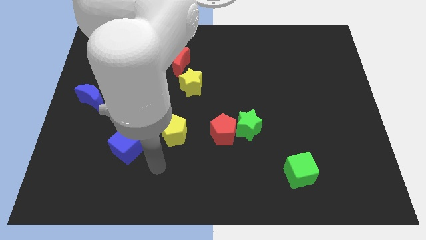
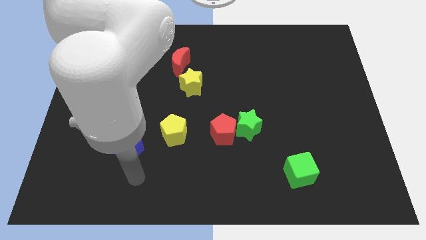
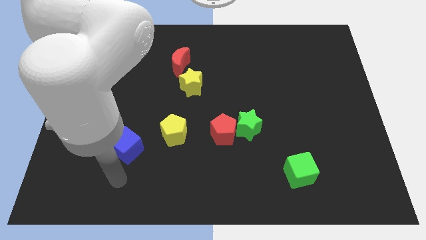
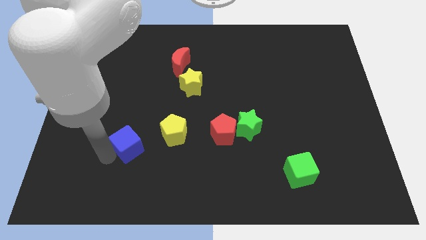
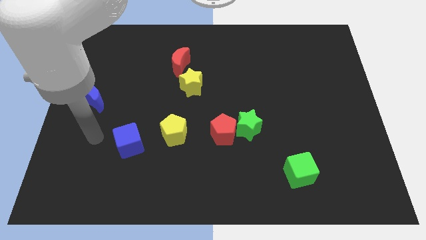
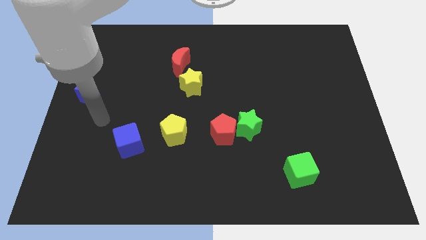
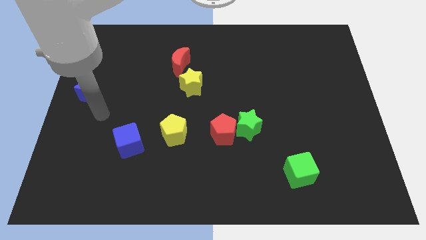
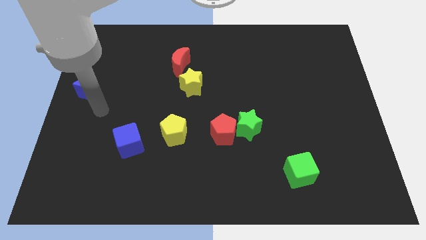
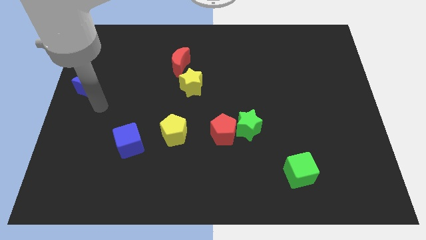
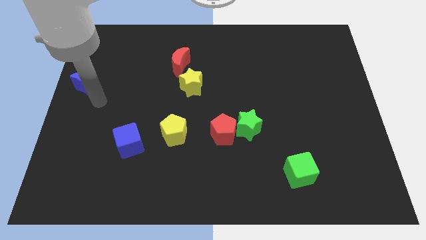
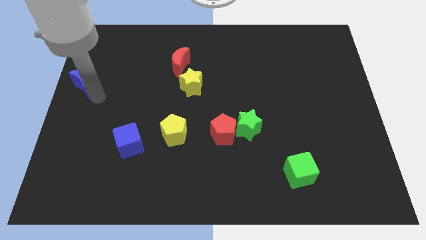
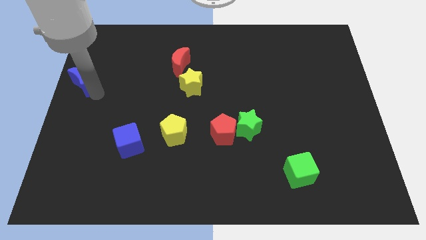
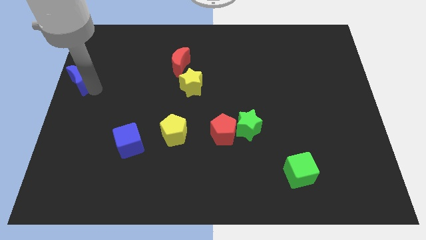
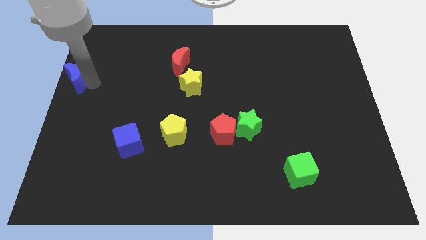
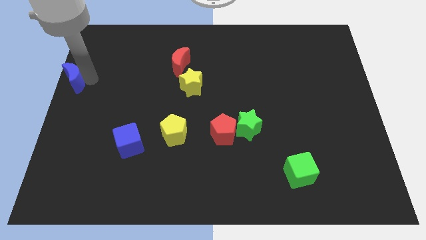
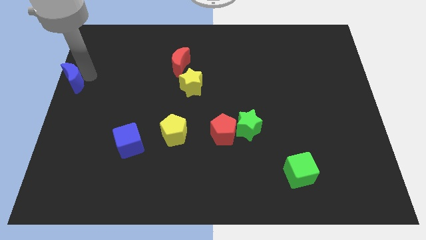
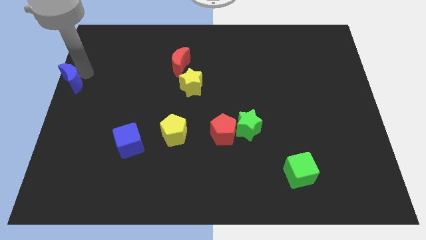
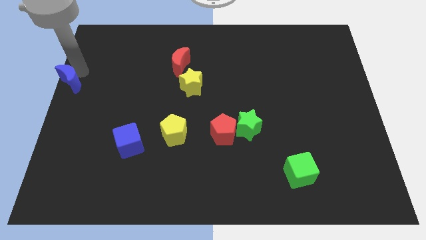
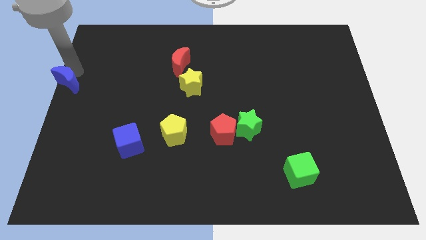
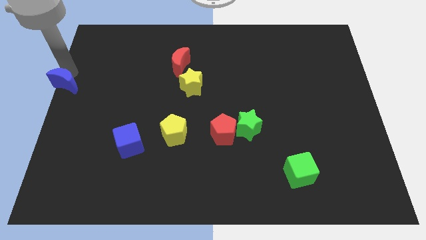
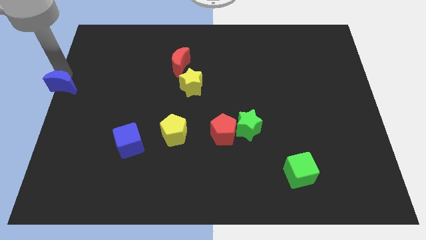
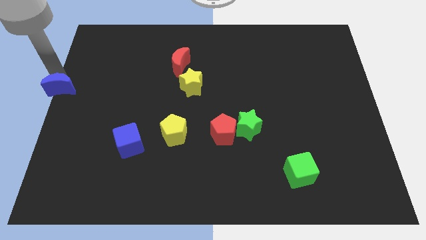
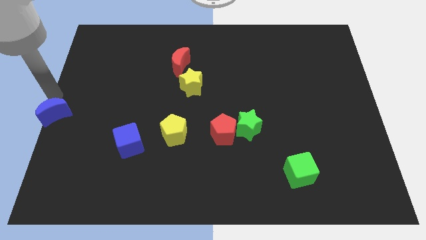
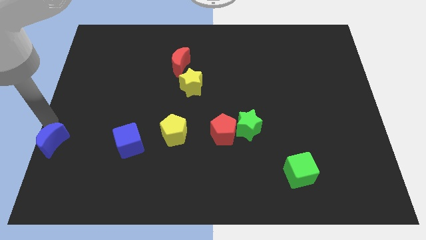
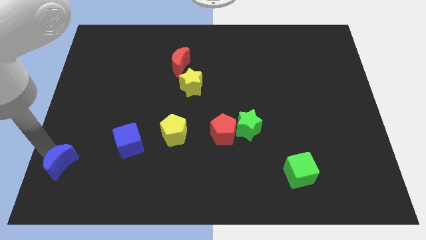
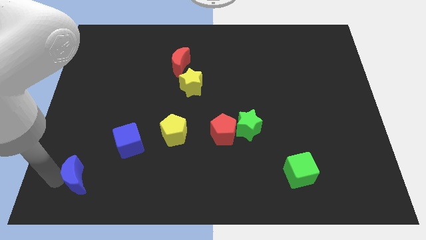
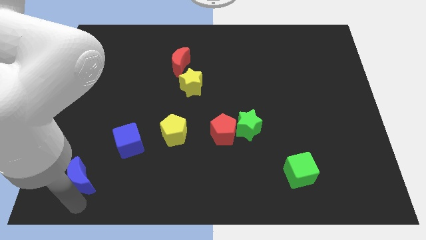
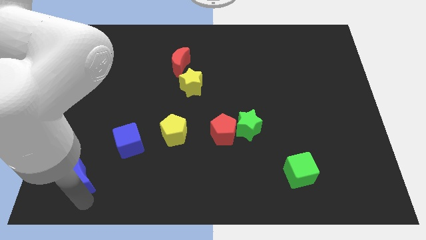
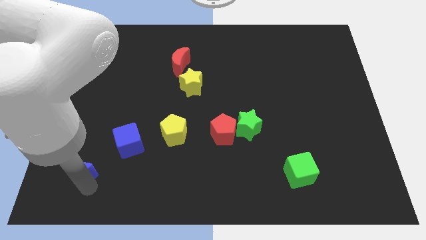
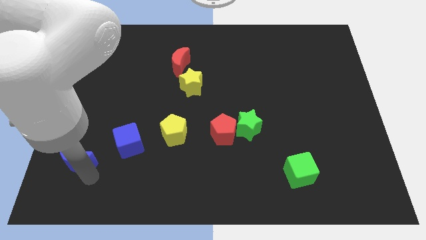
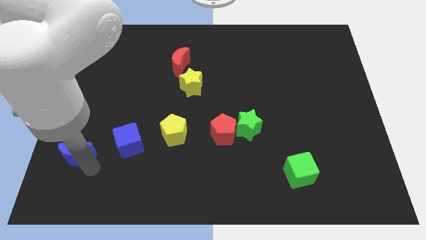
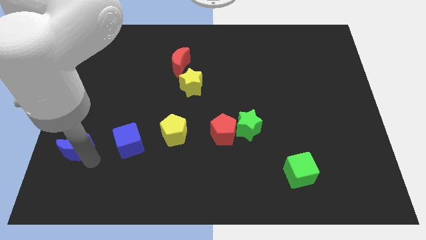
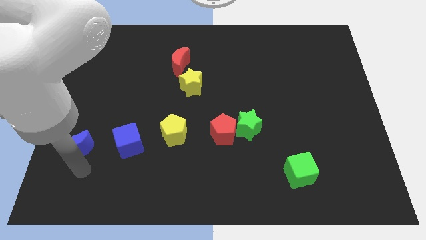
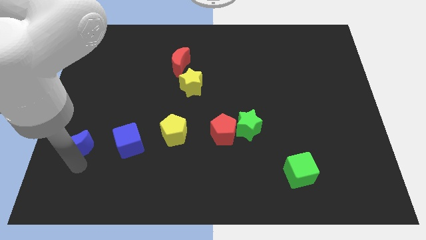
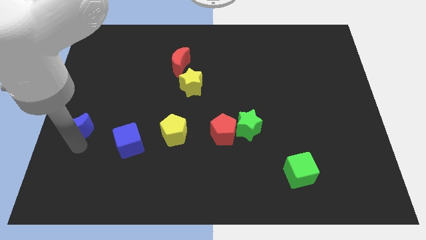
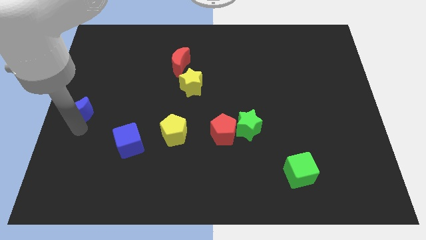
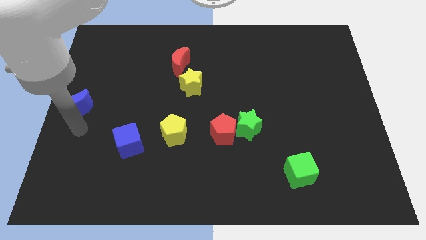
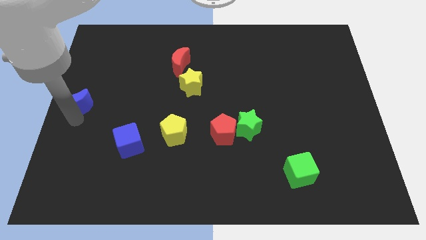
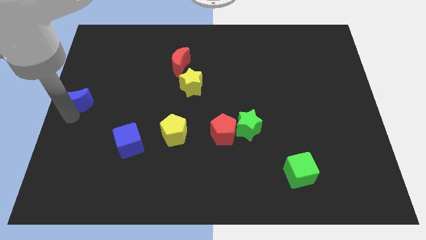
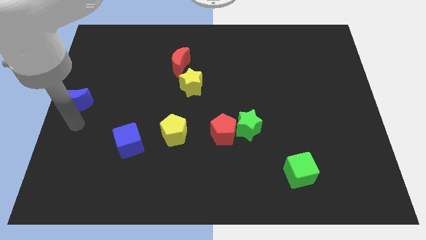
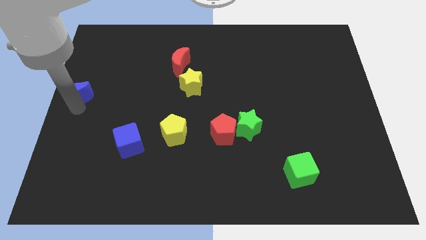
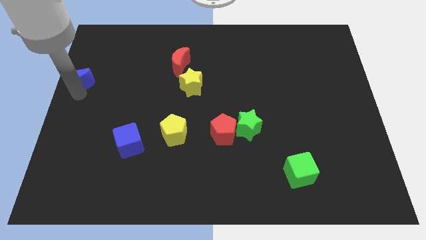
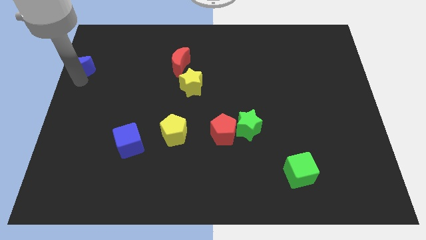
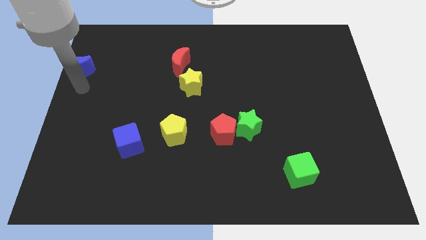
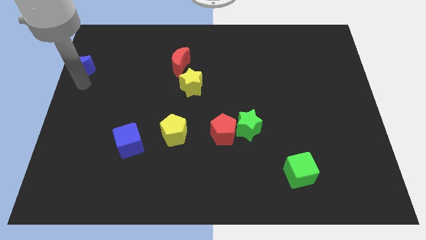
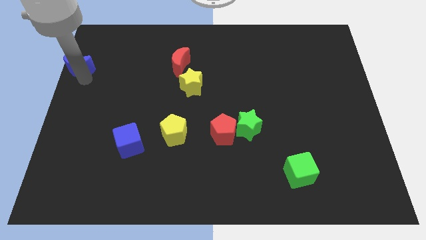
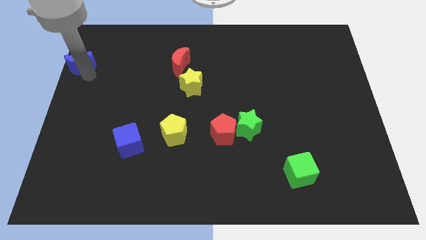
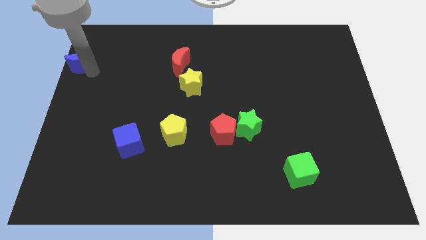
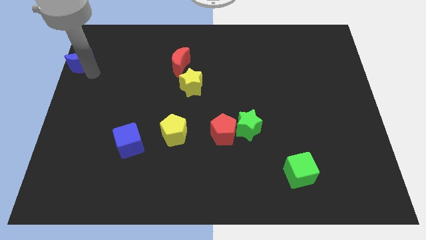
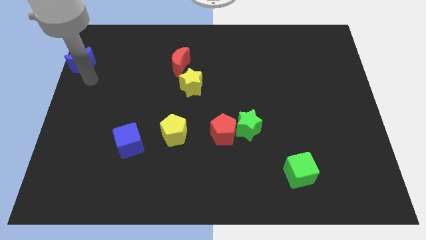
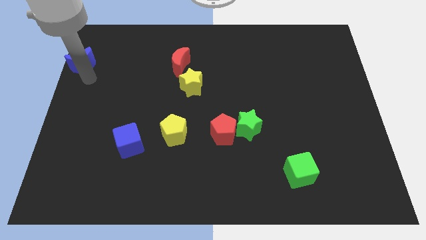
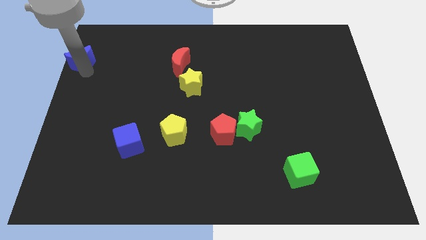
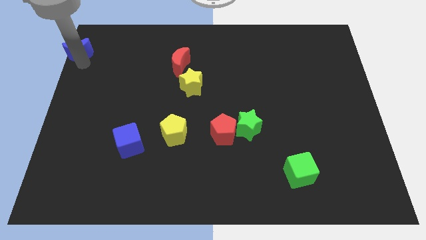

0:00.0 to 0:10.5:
push the blue moon to the top left

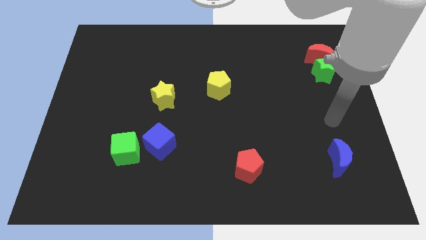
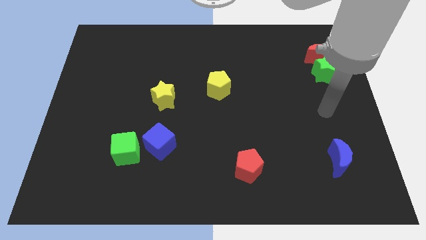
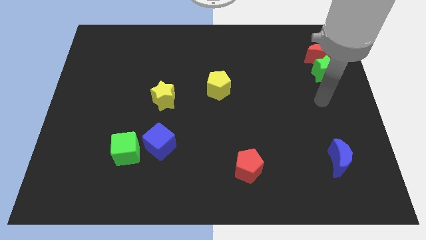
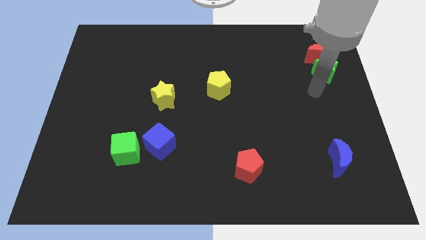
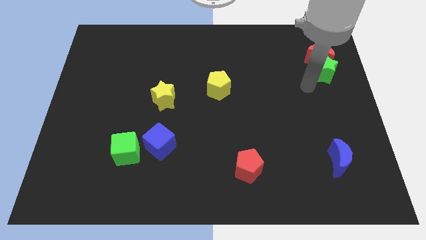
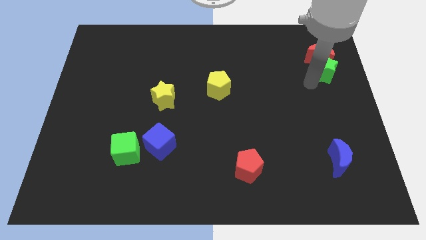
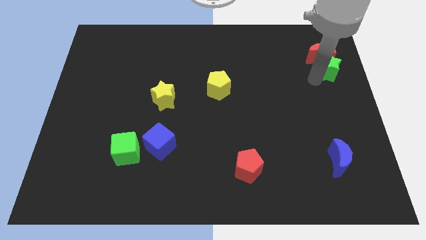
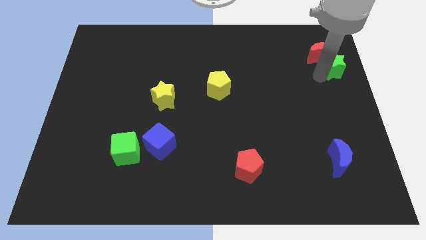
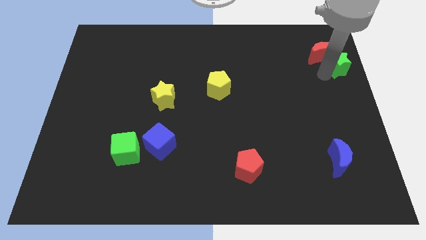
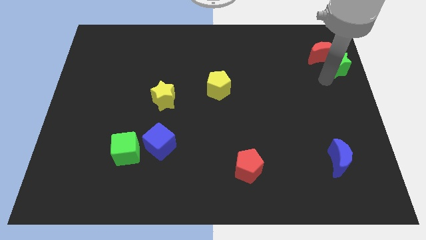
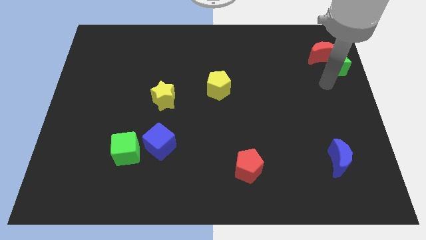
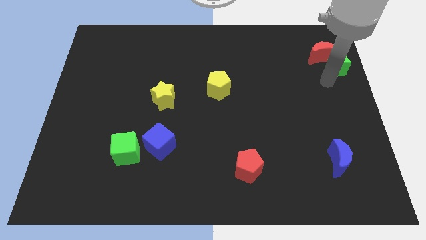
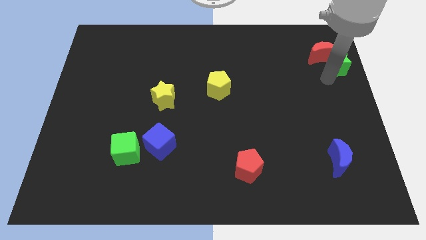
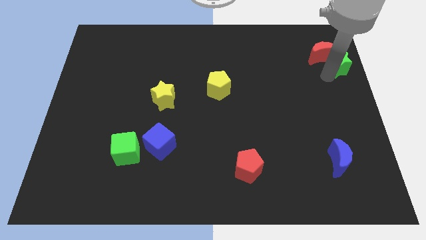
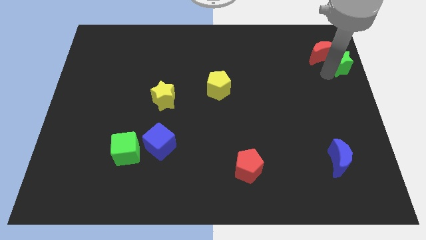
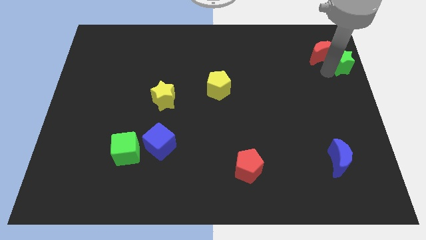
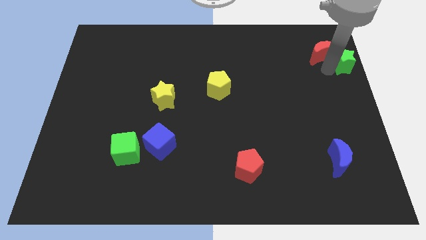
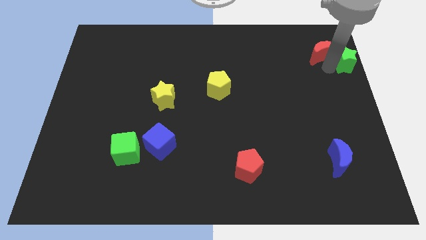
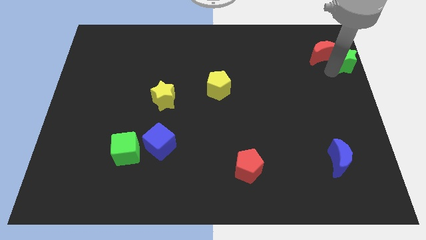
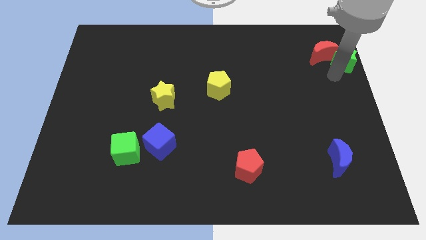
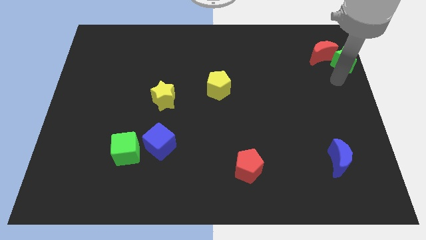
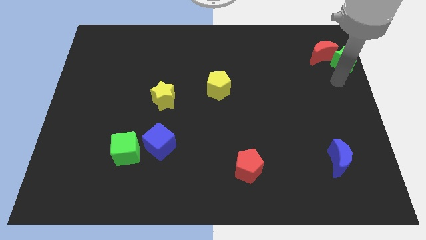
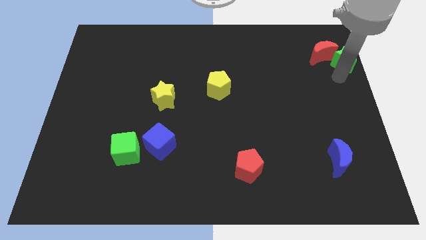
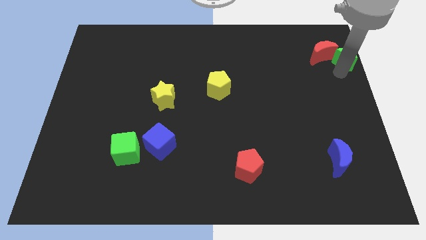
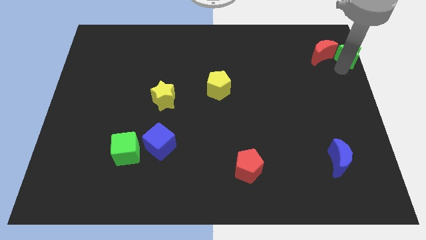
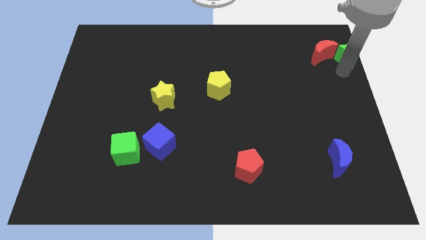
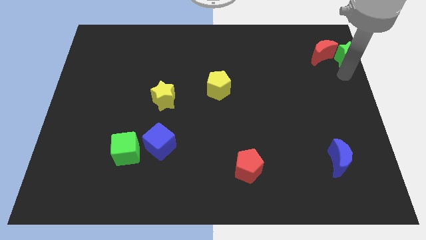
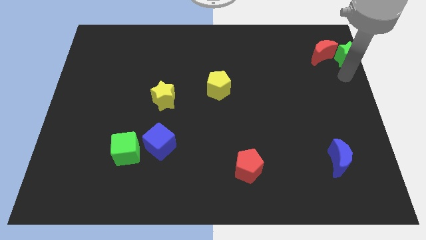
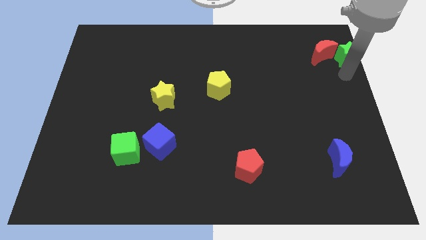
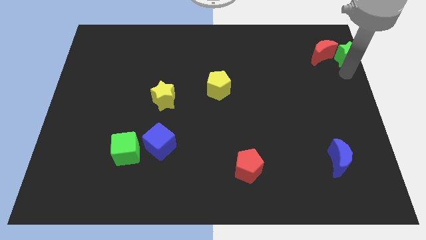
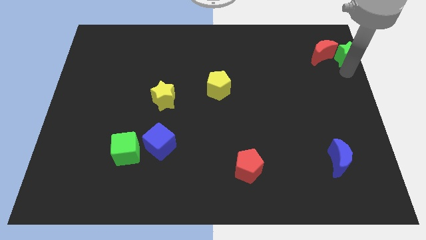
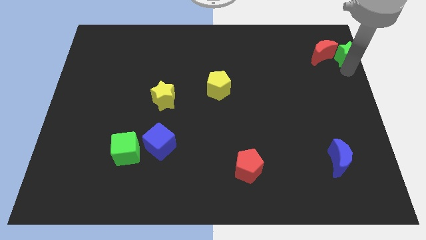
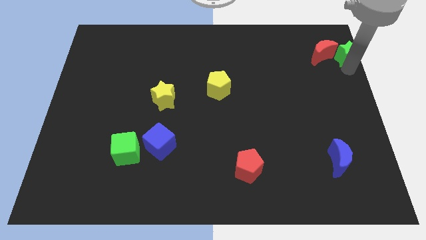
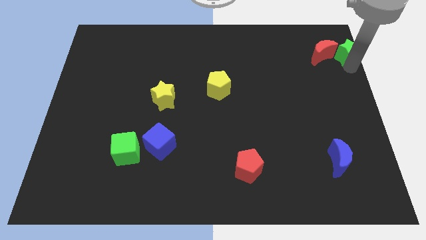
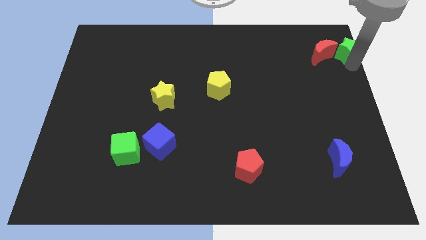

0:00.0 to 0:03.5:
slide the green star to the top right
